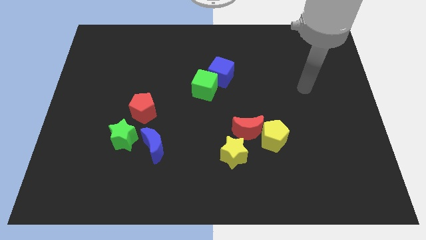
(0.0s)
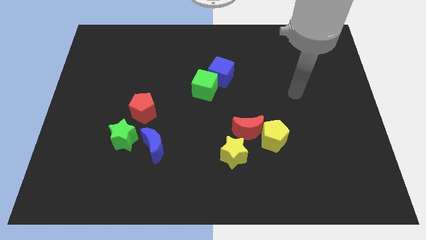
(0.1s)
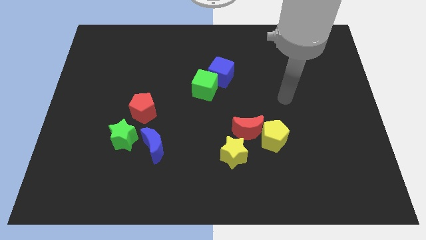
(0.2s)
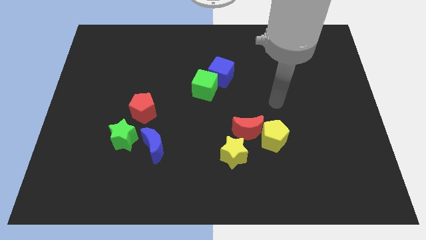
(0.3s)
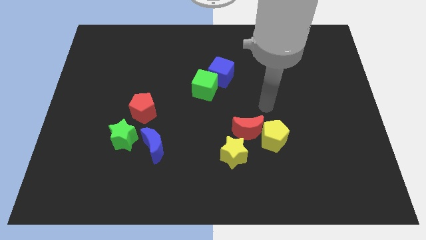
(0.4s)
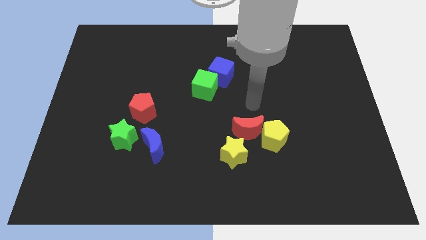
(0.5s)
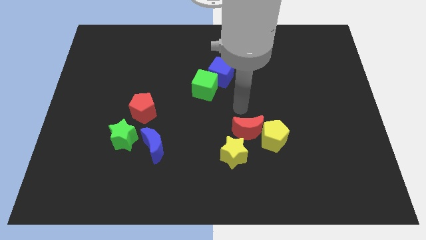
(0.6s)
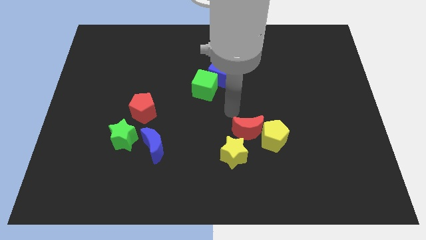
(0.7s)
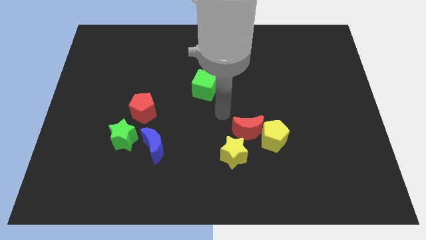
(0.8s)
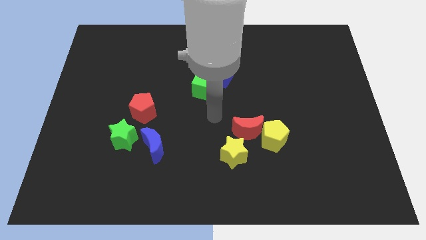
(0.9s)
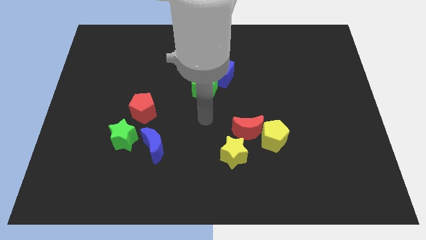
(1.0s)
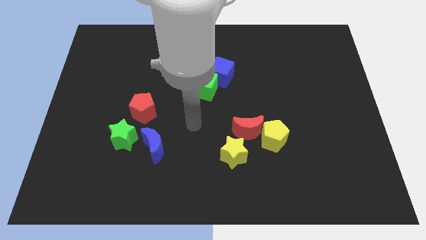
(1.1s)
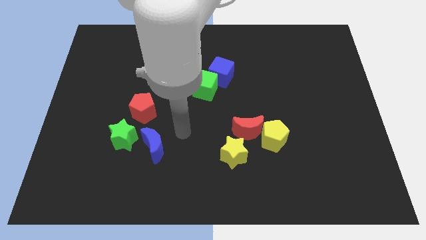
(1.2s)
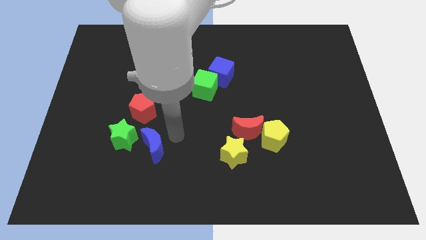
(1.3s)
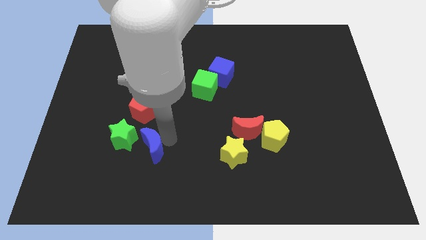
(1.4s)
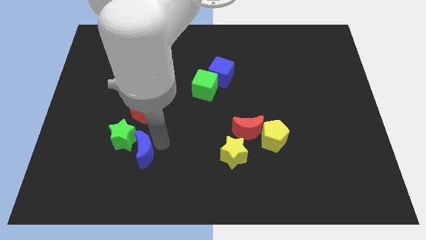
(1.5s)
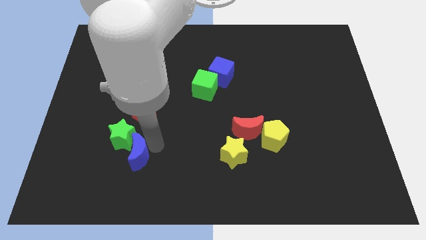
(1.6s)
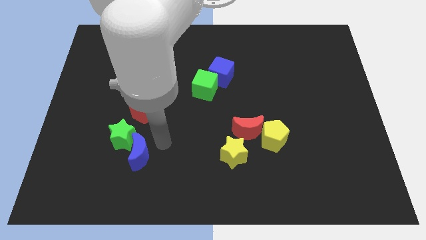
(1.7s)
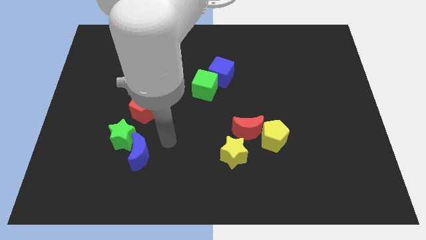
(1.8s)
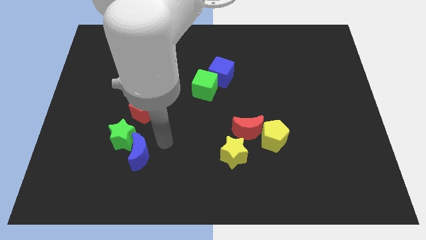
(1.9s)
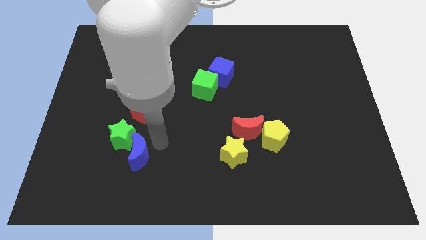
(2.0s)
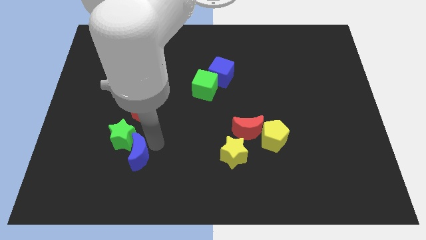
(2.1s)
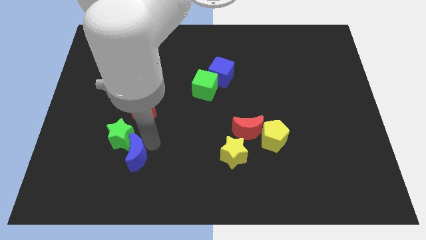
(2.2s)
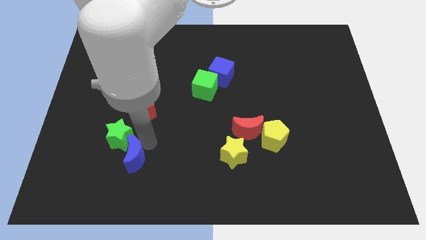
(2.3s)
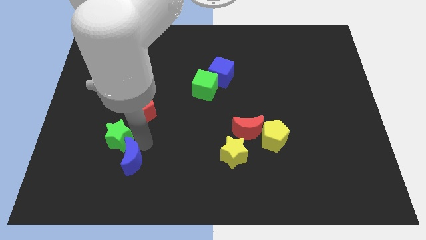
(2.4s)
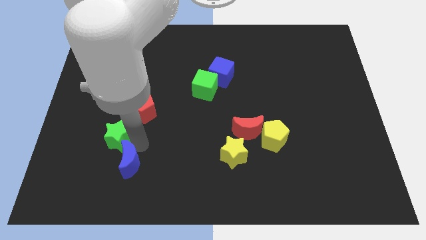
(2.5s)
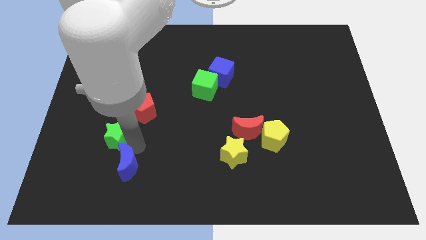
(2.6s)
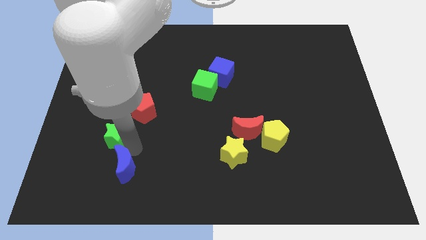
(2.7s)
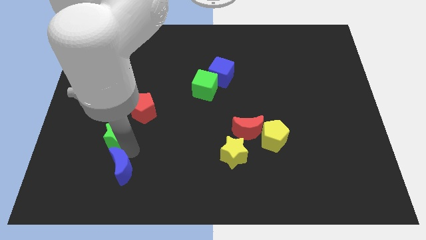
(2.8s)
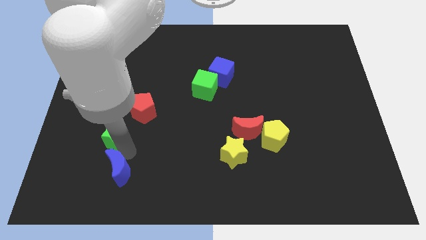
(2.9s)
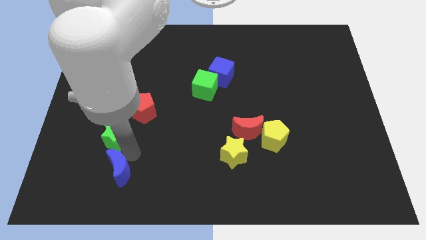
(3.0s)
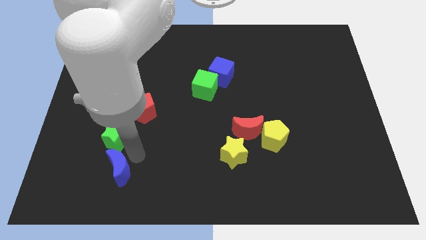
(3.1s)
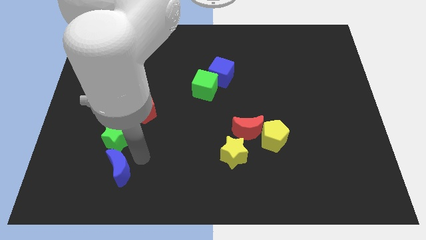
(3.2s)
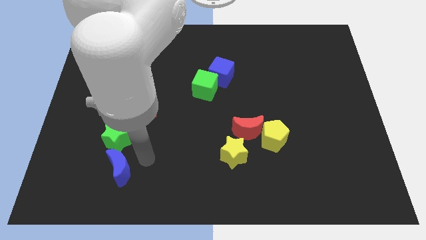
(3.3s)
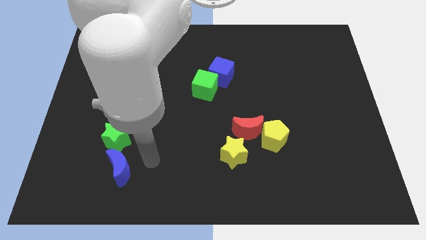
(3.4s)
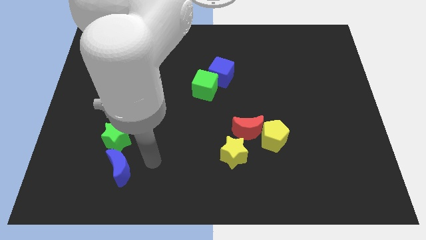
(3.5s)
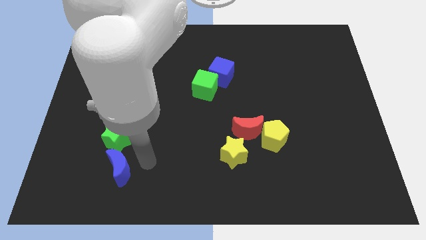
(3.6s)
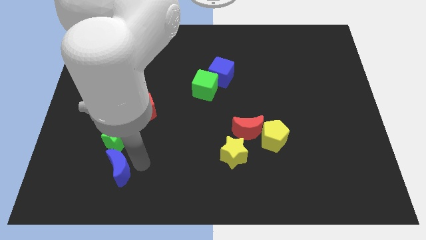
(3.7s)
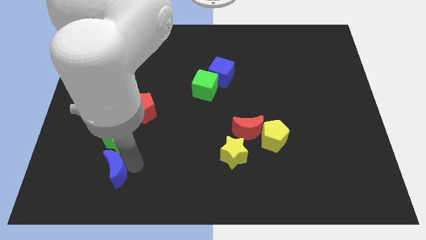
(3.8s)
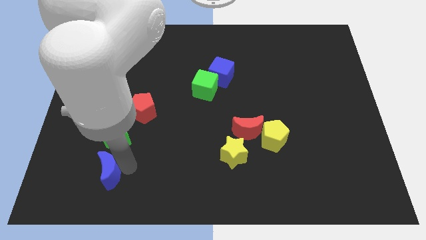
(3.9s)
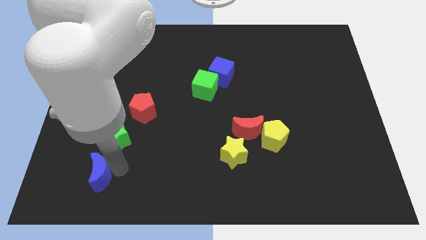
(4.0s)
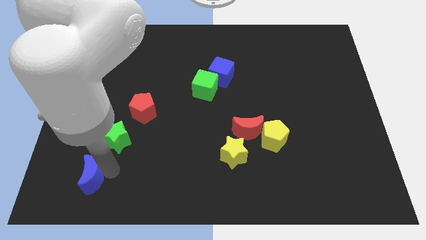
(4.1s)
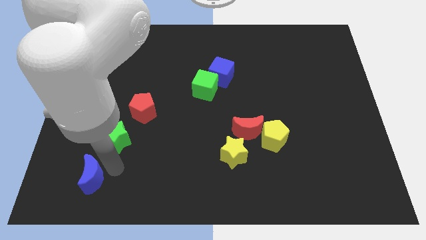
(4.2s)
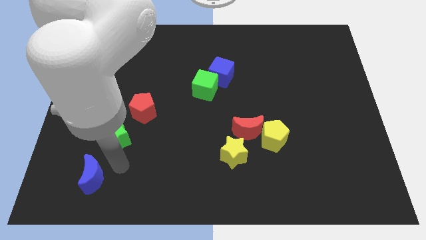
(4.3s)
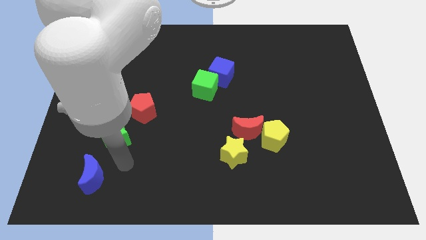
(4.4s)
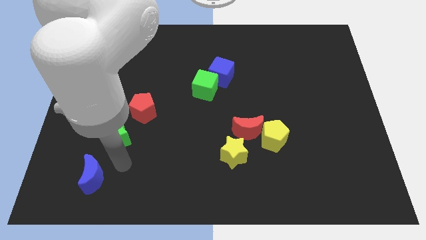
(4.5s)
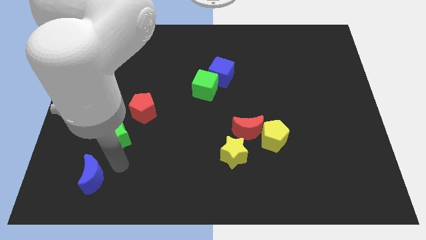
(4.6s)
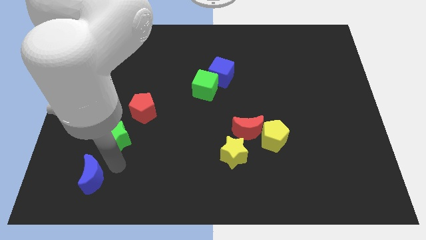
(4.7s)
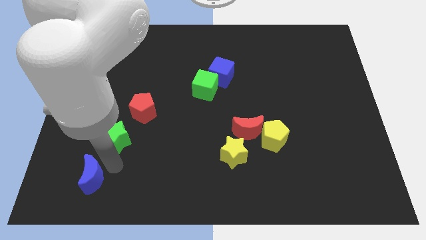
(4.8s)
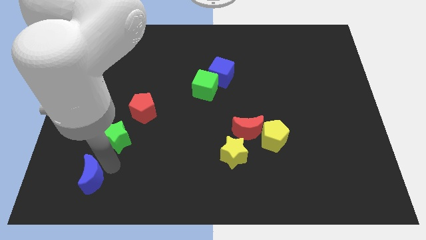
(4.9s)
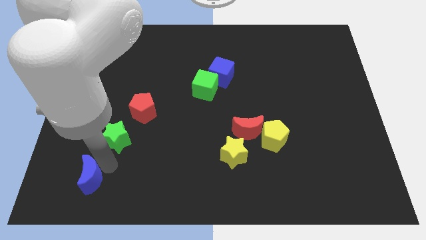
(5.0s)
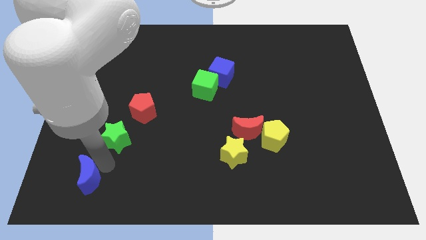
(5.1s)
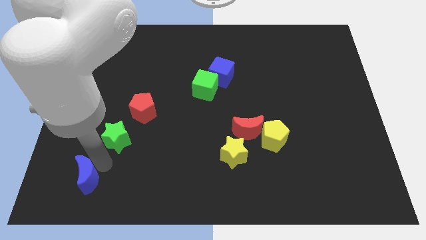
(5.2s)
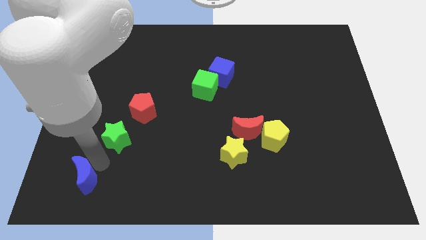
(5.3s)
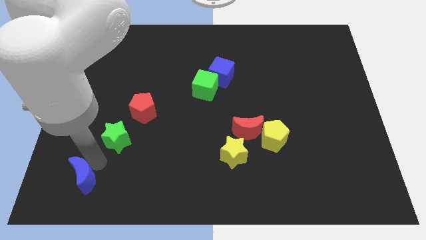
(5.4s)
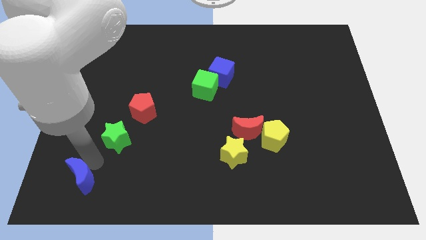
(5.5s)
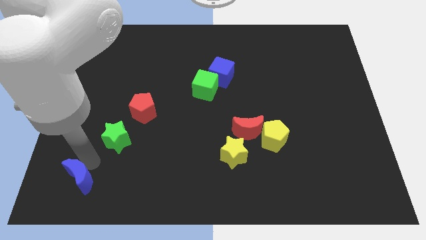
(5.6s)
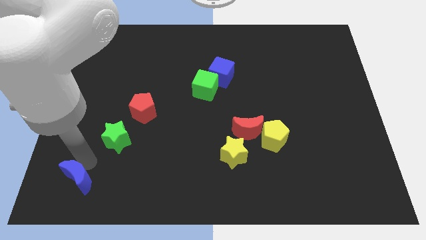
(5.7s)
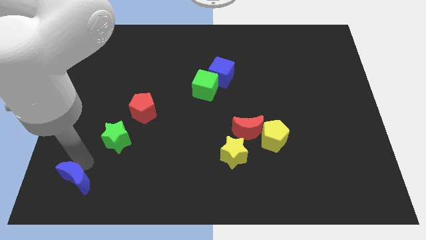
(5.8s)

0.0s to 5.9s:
move the blue moon to the bottom left corner

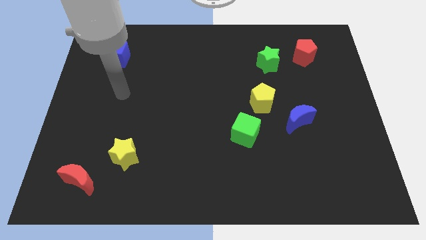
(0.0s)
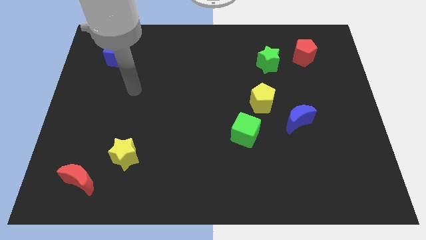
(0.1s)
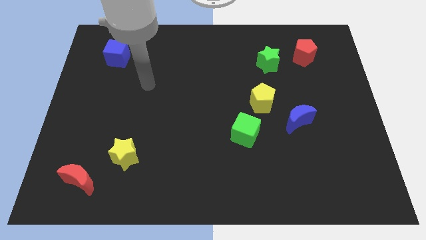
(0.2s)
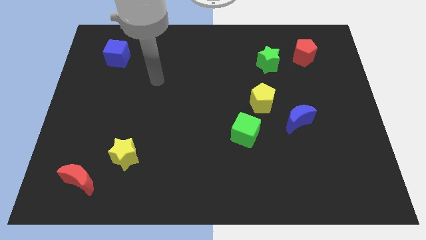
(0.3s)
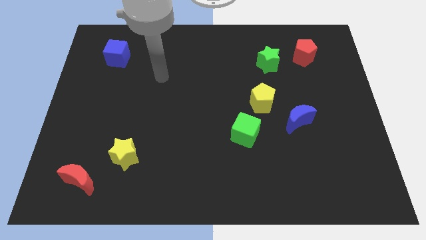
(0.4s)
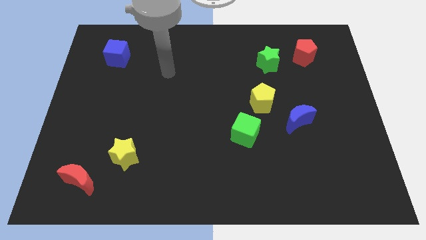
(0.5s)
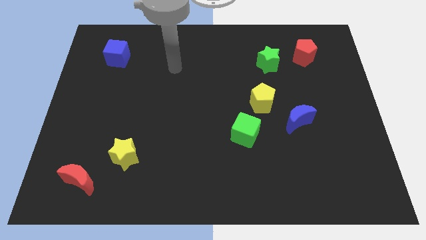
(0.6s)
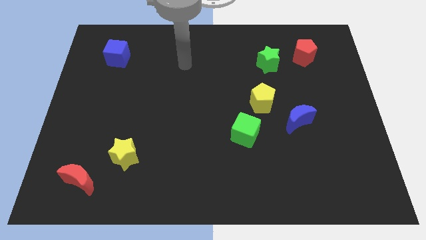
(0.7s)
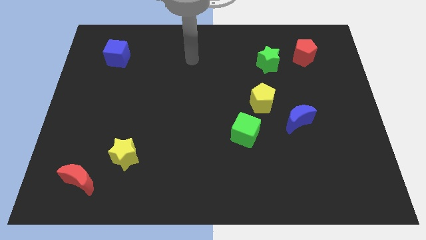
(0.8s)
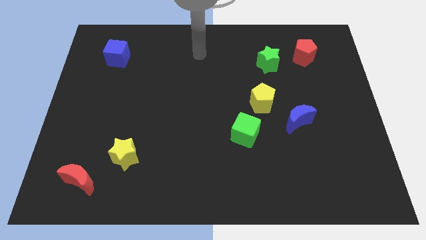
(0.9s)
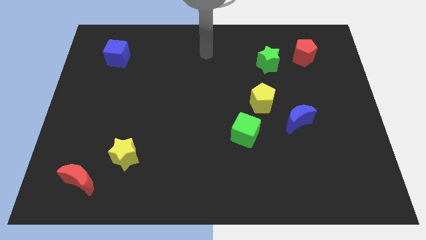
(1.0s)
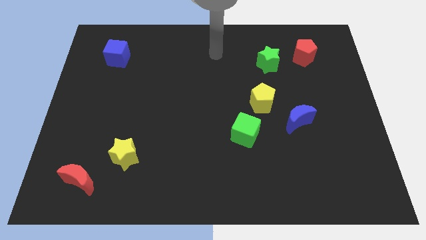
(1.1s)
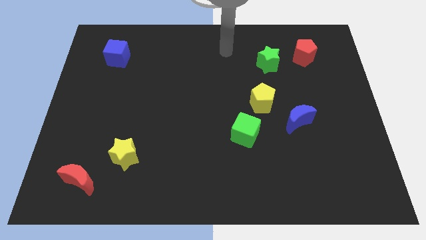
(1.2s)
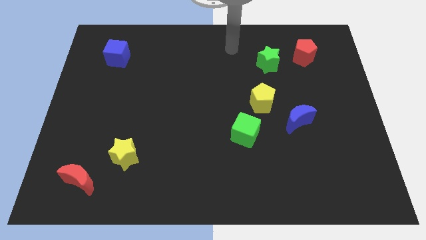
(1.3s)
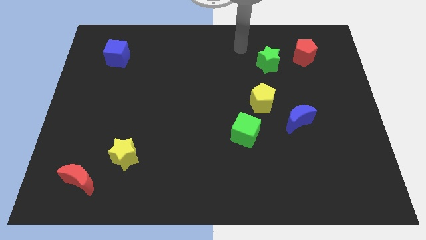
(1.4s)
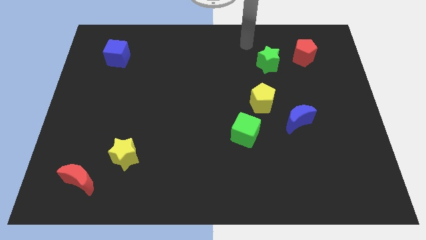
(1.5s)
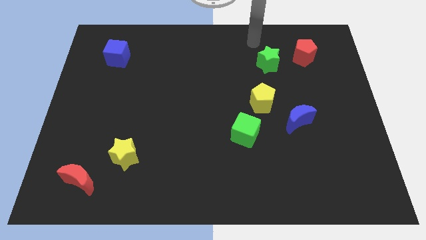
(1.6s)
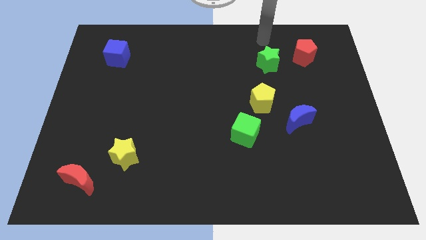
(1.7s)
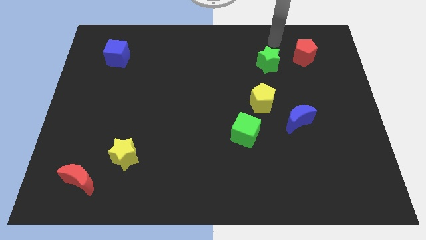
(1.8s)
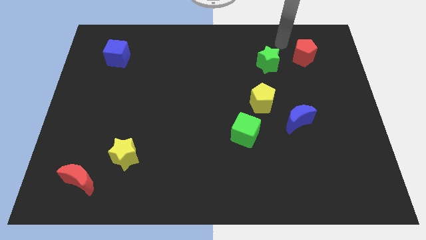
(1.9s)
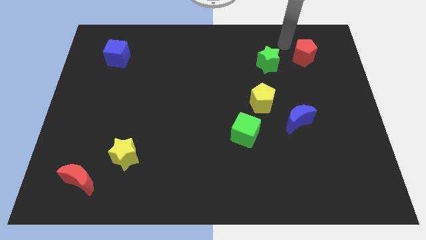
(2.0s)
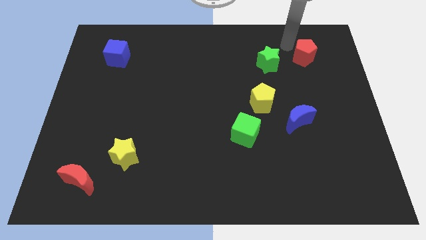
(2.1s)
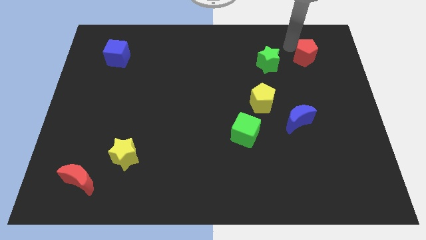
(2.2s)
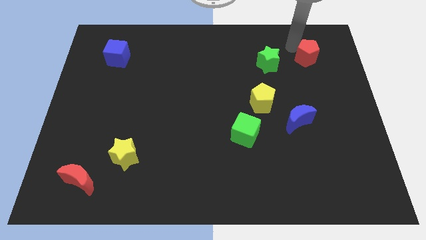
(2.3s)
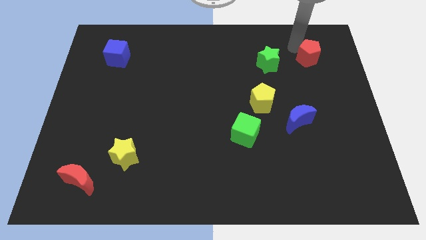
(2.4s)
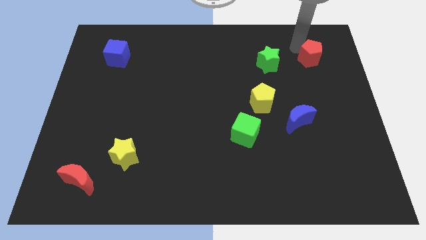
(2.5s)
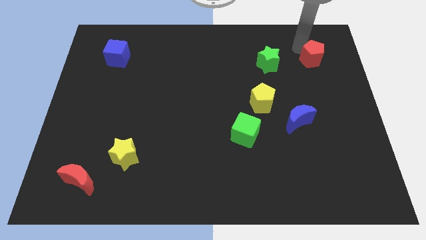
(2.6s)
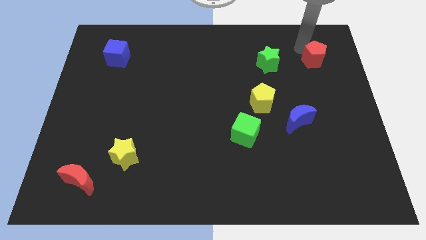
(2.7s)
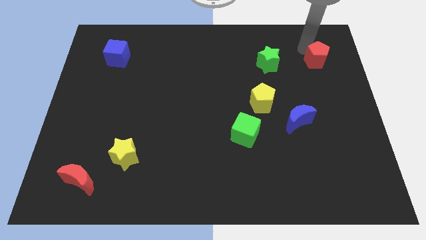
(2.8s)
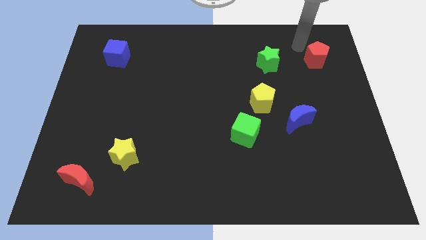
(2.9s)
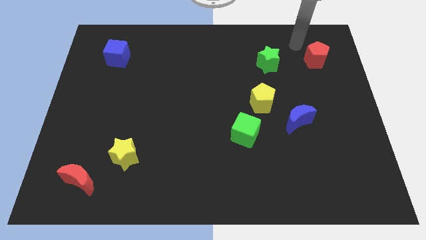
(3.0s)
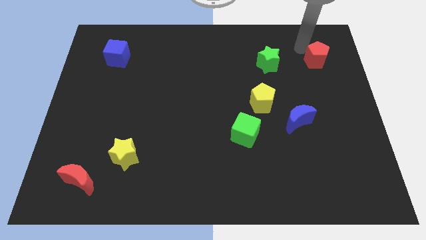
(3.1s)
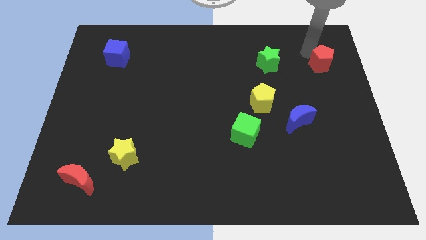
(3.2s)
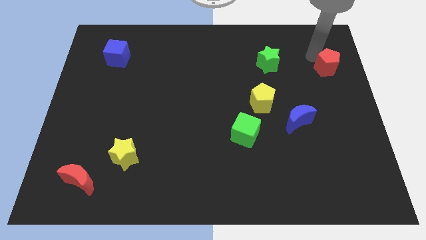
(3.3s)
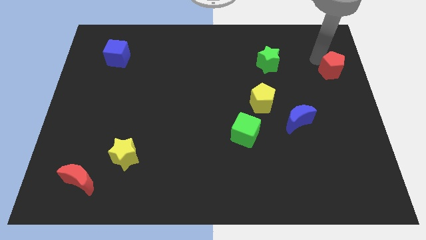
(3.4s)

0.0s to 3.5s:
slide the red pentagon to the center right
